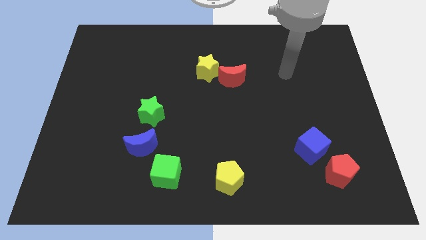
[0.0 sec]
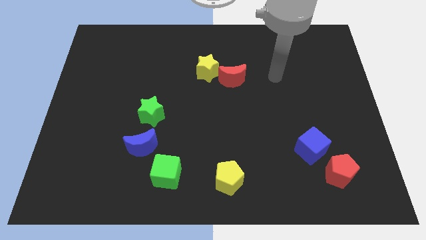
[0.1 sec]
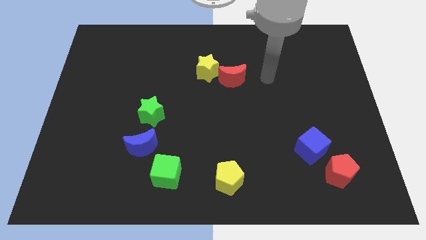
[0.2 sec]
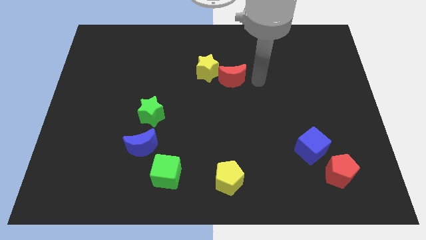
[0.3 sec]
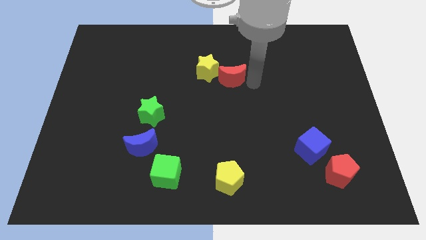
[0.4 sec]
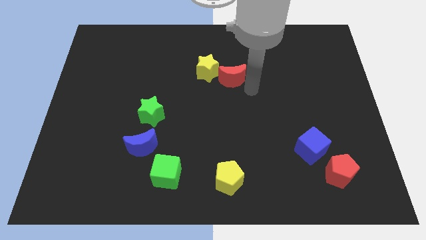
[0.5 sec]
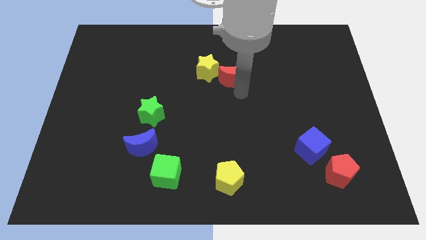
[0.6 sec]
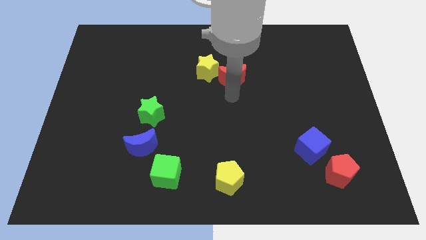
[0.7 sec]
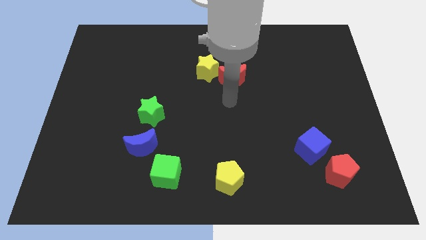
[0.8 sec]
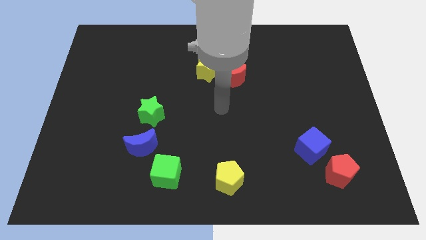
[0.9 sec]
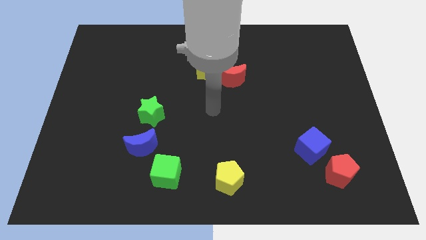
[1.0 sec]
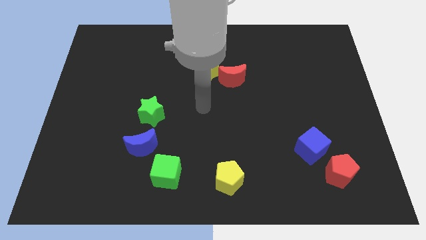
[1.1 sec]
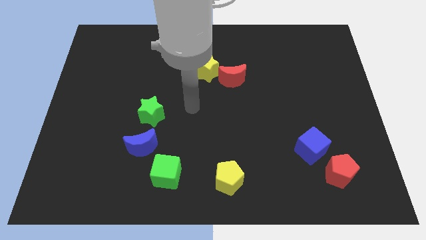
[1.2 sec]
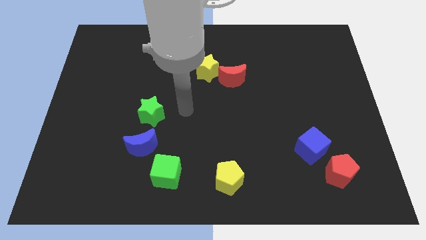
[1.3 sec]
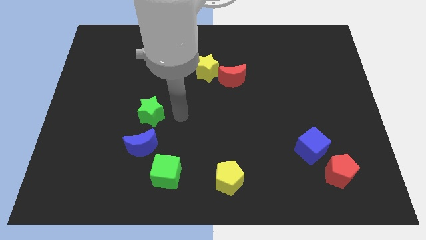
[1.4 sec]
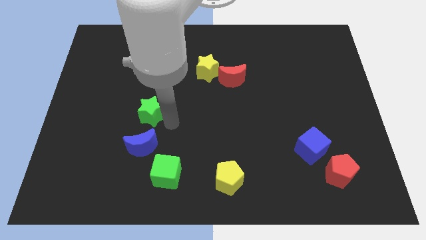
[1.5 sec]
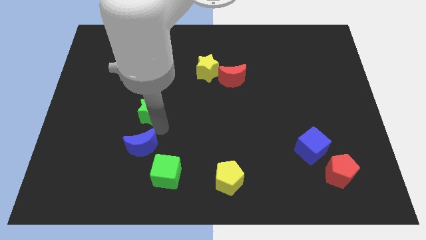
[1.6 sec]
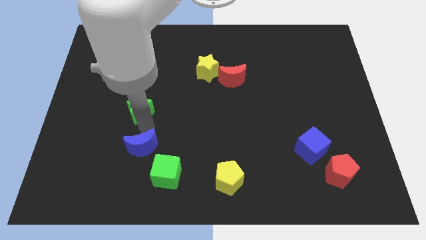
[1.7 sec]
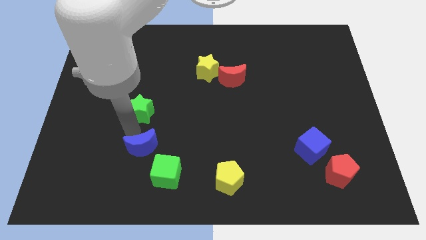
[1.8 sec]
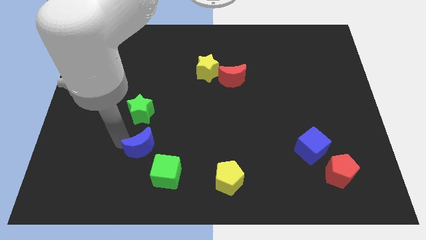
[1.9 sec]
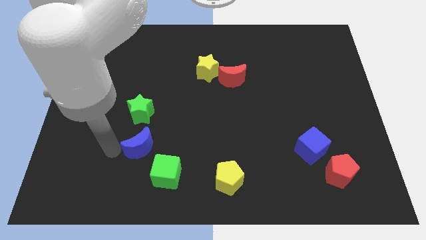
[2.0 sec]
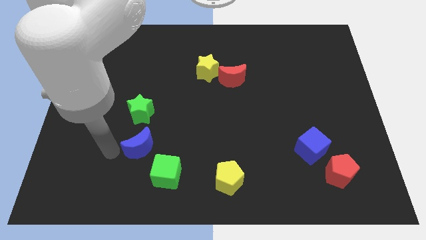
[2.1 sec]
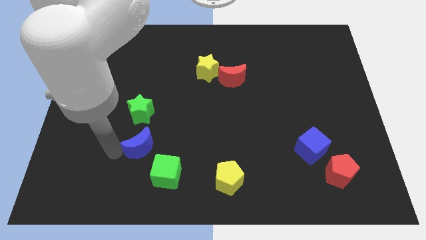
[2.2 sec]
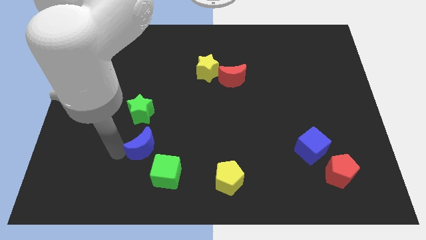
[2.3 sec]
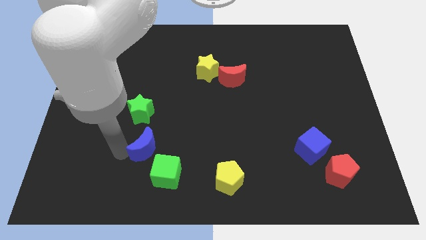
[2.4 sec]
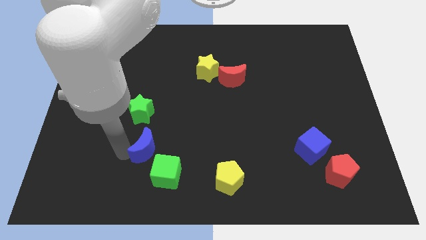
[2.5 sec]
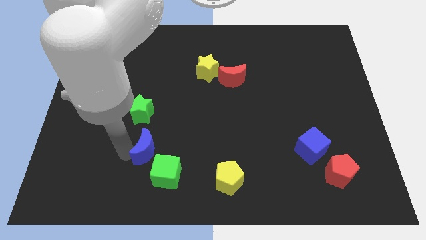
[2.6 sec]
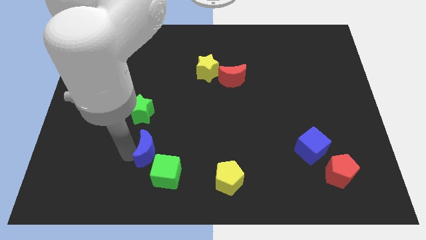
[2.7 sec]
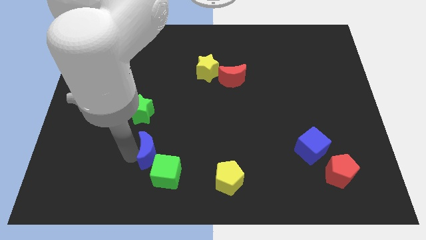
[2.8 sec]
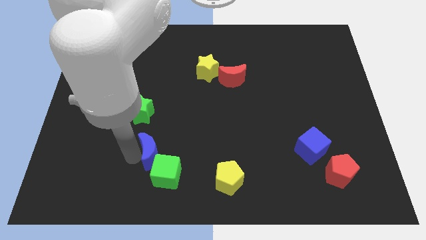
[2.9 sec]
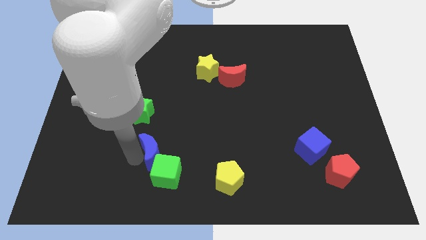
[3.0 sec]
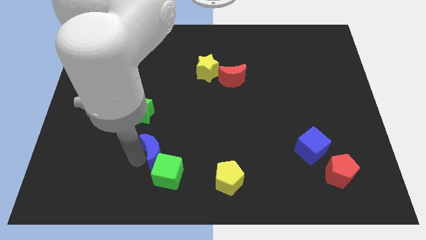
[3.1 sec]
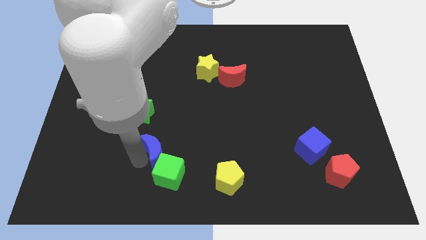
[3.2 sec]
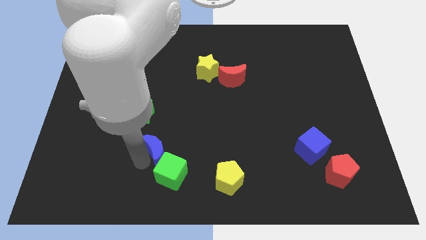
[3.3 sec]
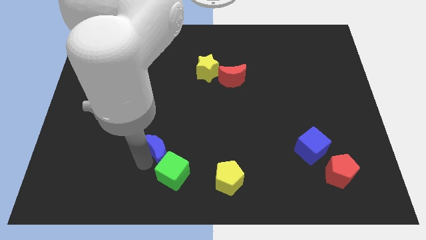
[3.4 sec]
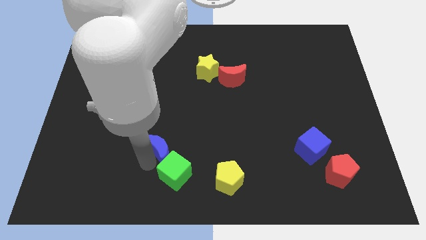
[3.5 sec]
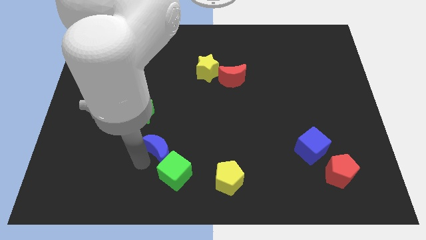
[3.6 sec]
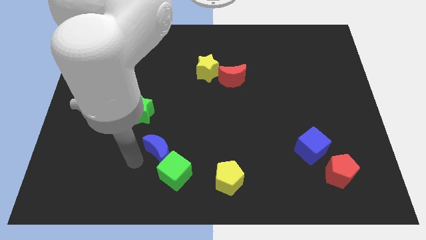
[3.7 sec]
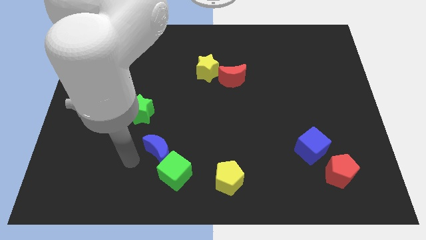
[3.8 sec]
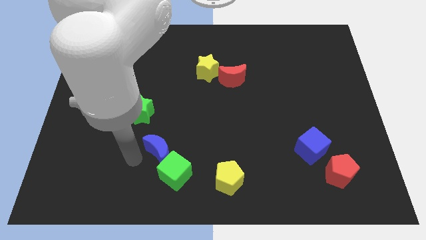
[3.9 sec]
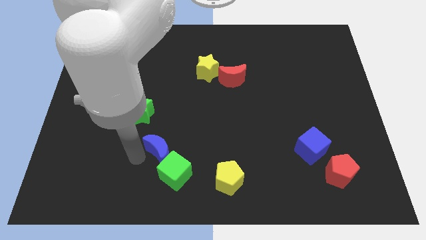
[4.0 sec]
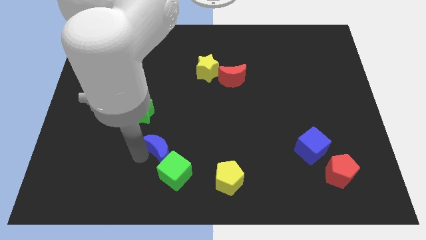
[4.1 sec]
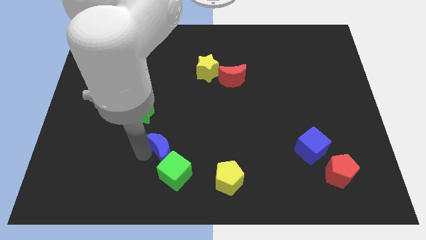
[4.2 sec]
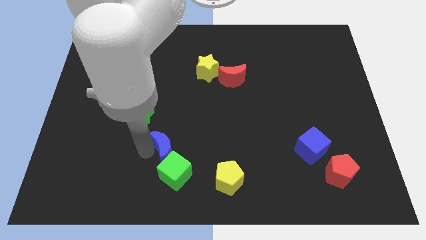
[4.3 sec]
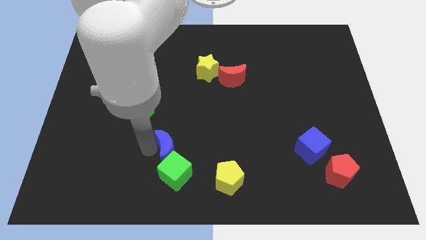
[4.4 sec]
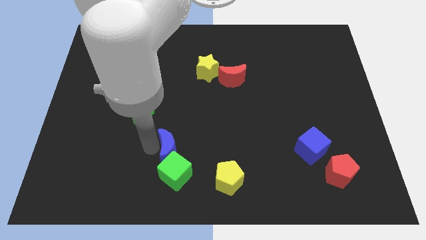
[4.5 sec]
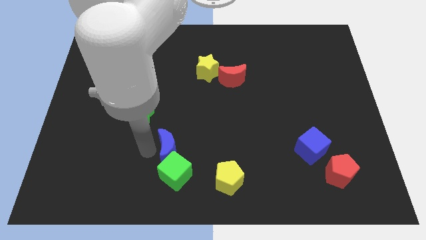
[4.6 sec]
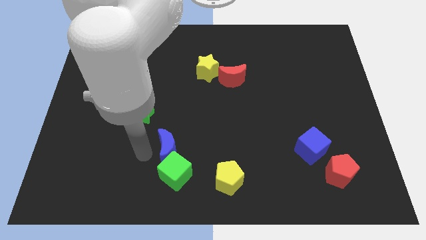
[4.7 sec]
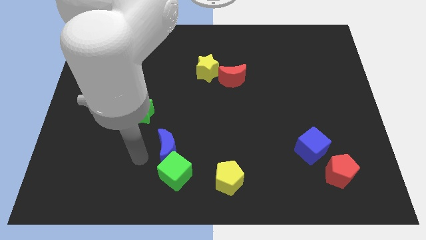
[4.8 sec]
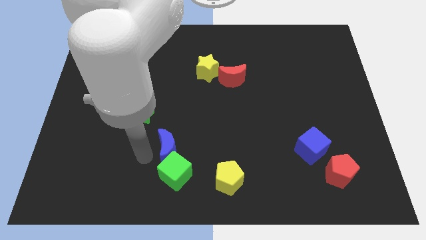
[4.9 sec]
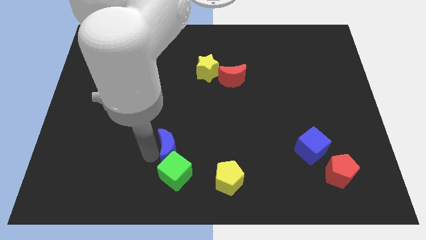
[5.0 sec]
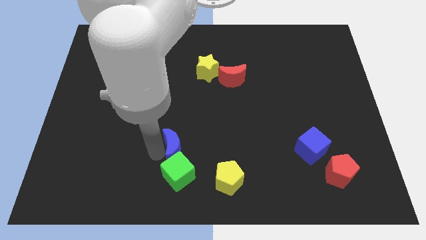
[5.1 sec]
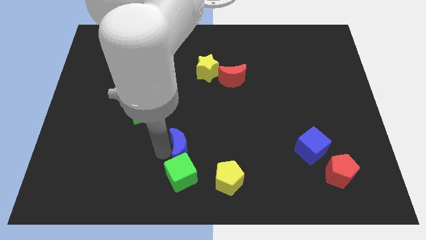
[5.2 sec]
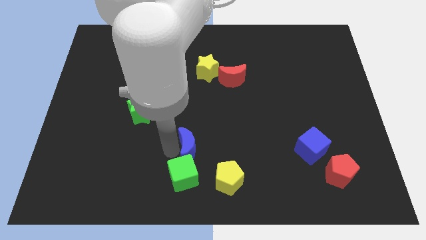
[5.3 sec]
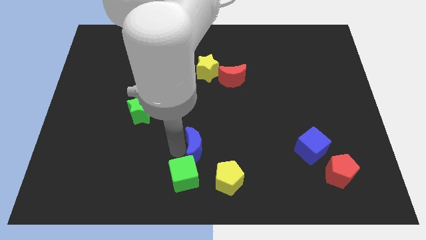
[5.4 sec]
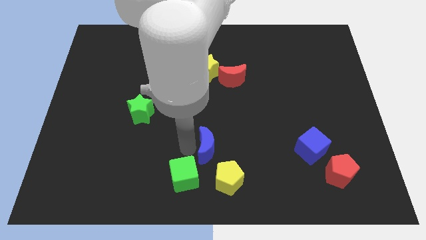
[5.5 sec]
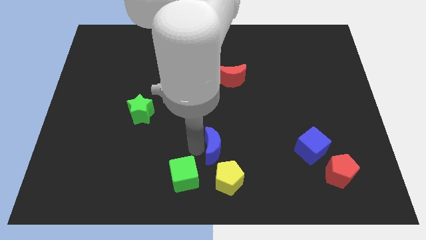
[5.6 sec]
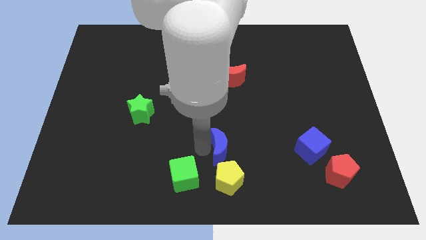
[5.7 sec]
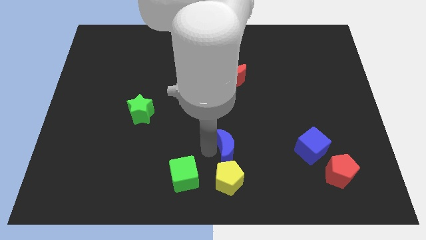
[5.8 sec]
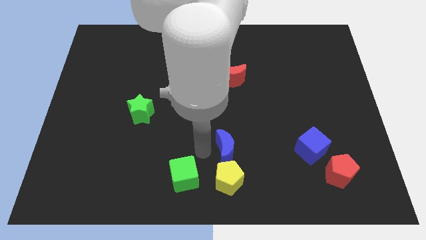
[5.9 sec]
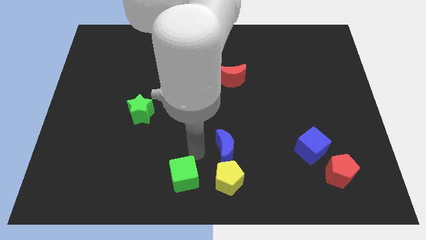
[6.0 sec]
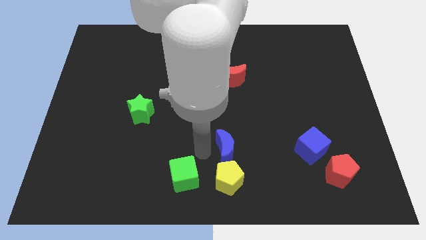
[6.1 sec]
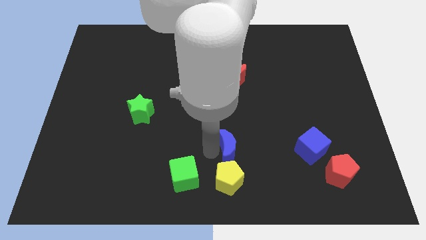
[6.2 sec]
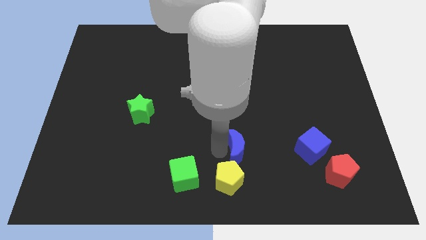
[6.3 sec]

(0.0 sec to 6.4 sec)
push the blue moon right

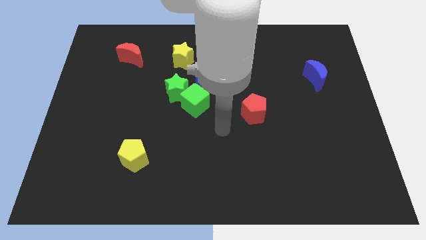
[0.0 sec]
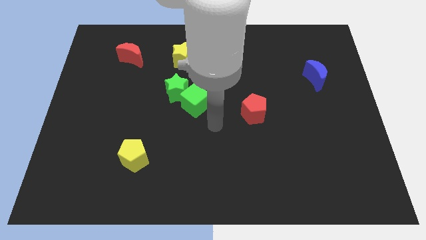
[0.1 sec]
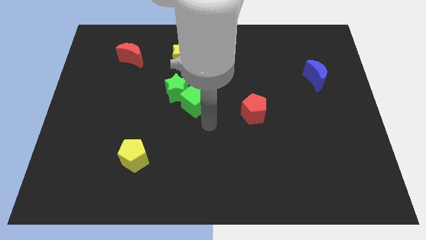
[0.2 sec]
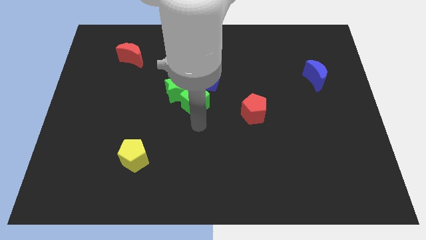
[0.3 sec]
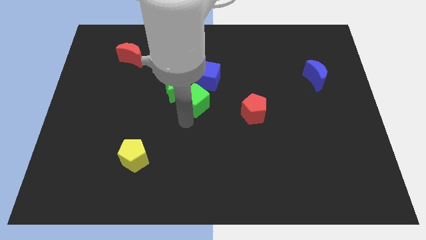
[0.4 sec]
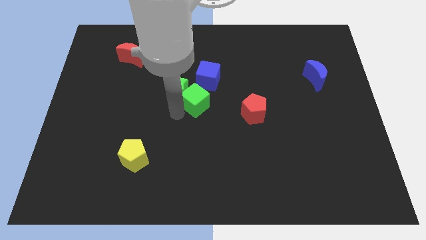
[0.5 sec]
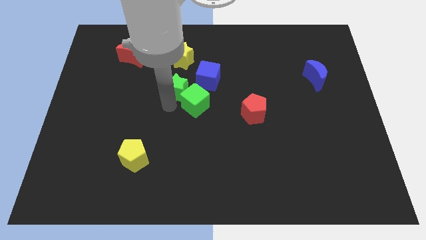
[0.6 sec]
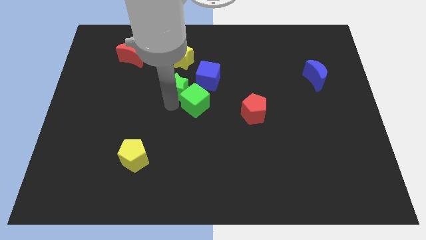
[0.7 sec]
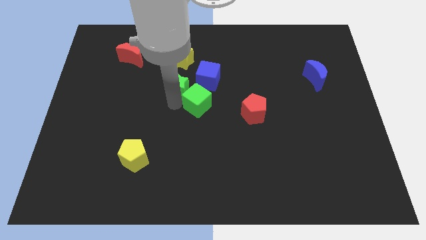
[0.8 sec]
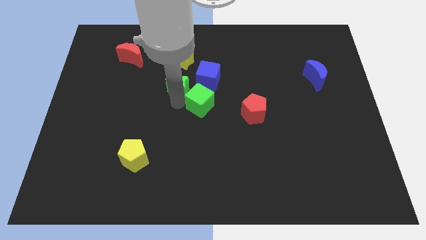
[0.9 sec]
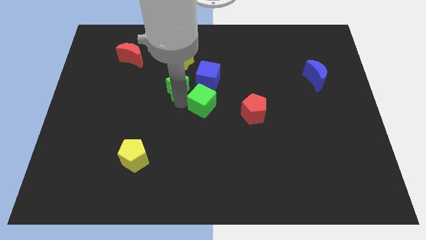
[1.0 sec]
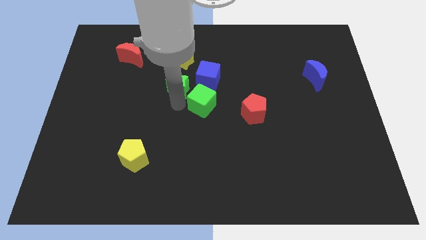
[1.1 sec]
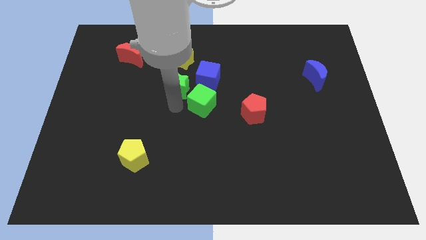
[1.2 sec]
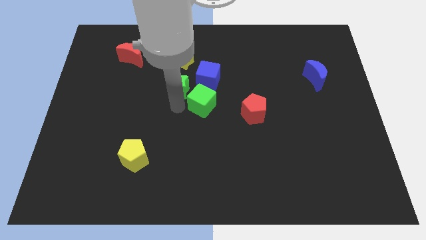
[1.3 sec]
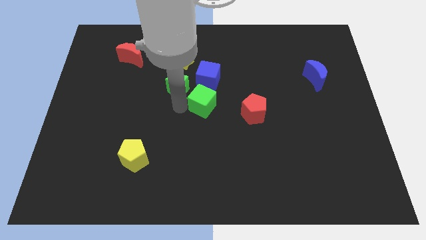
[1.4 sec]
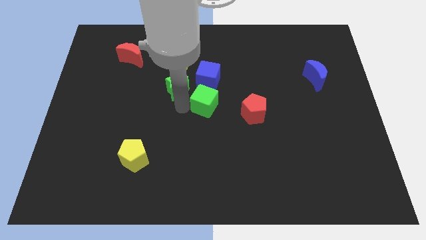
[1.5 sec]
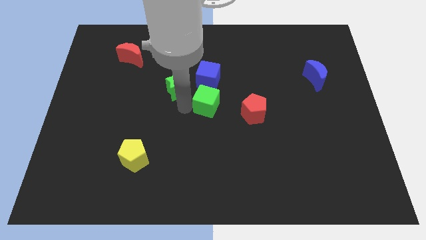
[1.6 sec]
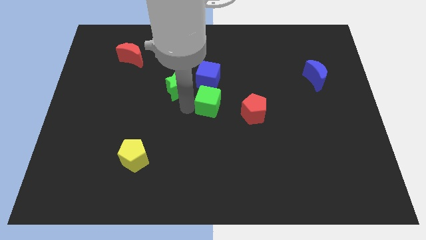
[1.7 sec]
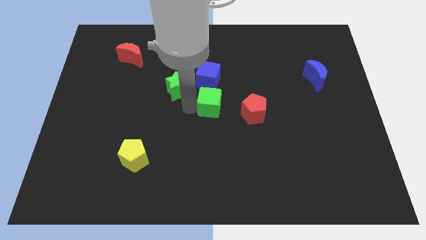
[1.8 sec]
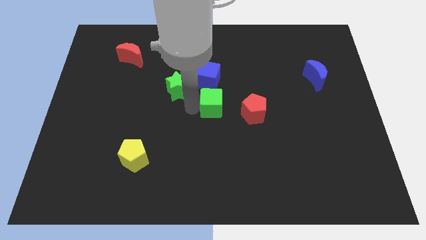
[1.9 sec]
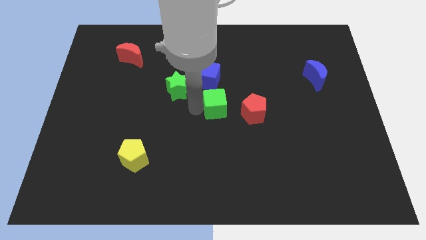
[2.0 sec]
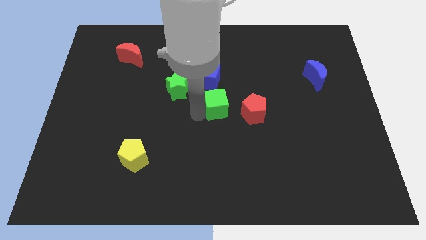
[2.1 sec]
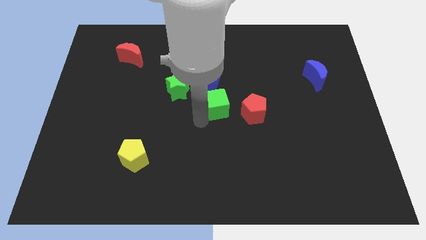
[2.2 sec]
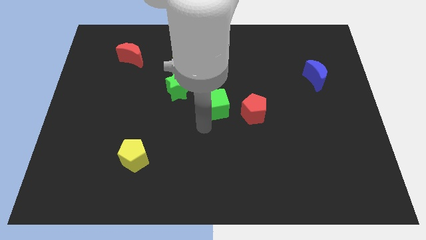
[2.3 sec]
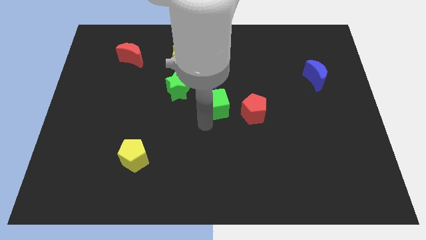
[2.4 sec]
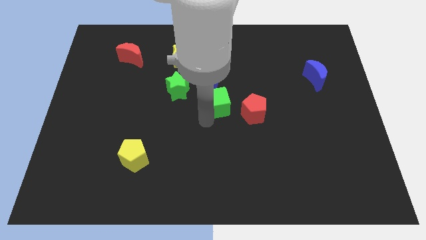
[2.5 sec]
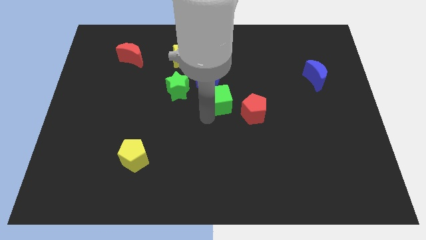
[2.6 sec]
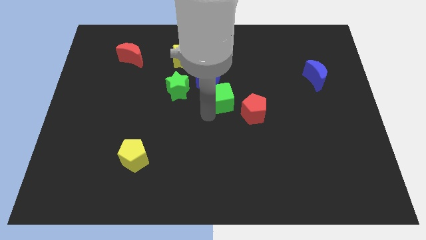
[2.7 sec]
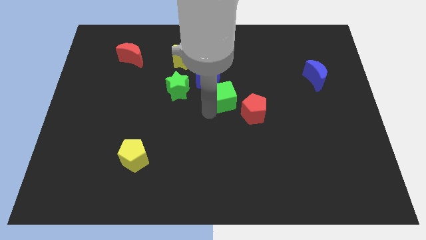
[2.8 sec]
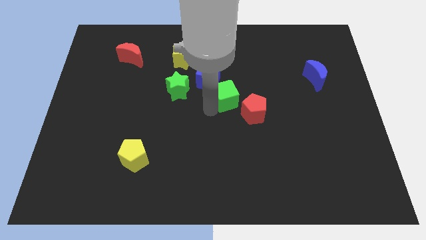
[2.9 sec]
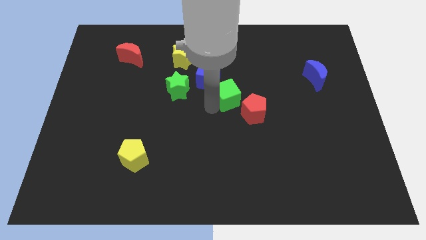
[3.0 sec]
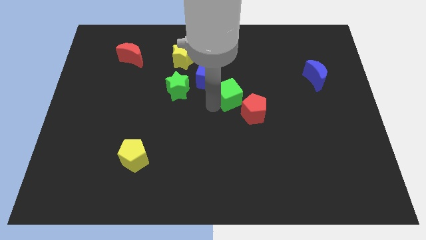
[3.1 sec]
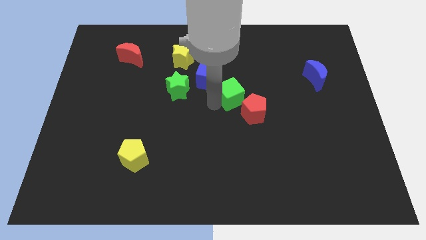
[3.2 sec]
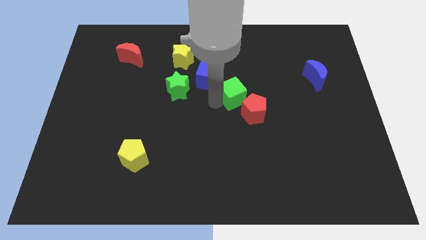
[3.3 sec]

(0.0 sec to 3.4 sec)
slide the green cube somewhat up and right diagonally
